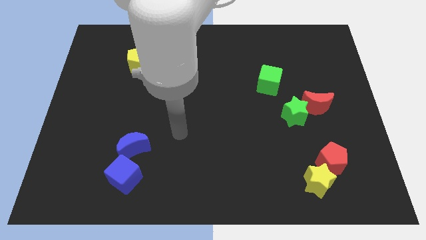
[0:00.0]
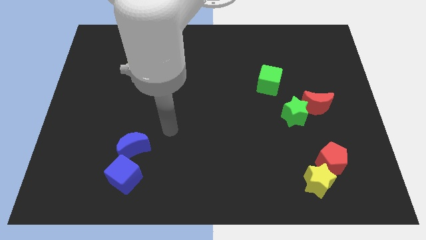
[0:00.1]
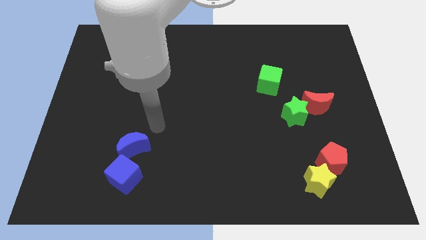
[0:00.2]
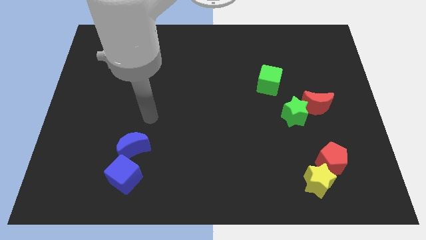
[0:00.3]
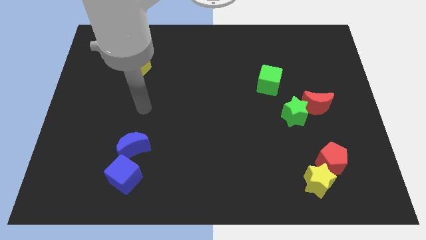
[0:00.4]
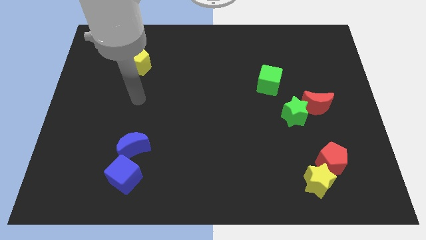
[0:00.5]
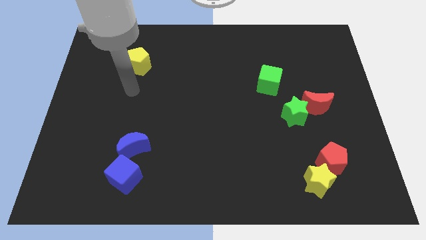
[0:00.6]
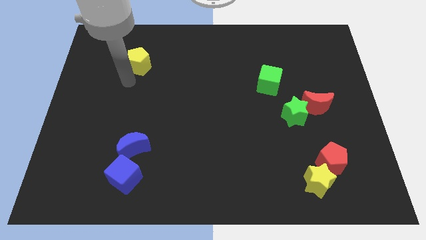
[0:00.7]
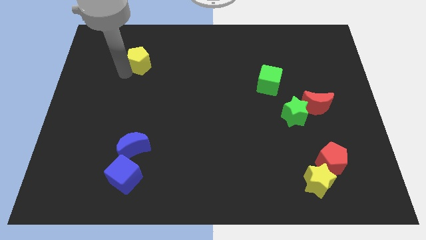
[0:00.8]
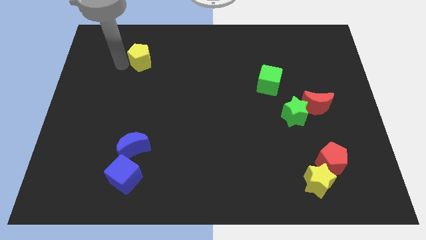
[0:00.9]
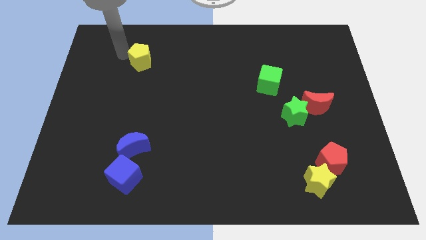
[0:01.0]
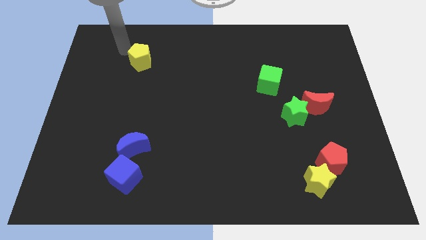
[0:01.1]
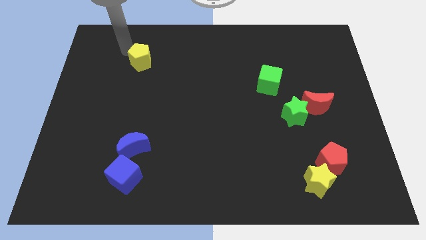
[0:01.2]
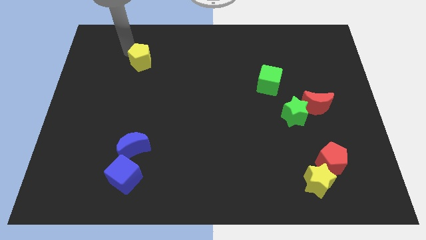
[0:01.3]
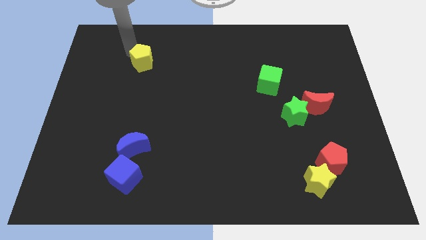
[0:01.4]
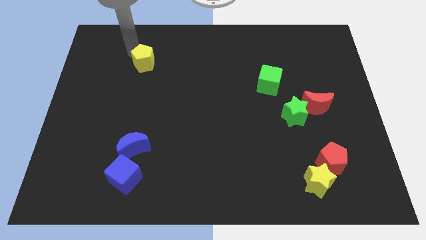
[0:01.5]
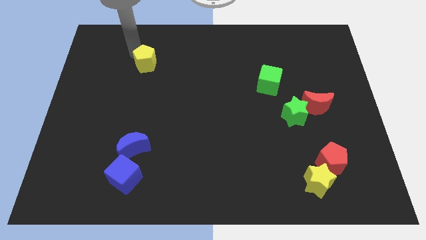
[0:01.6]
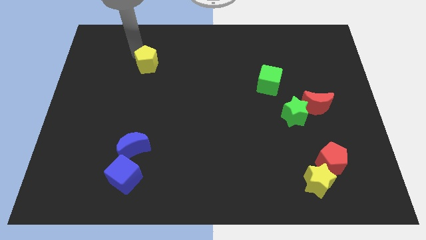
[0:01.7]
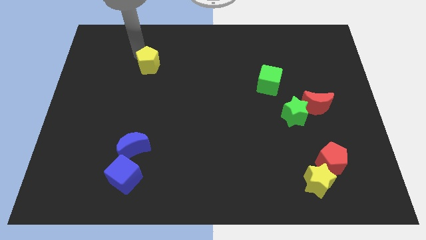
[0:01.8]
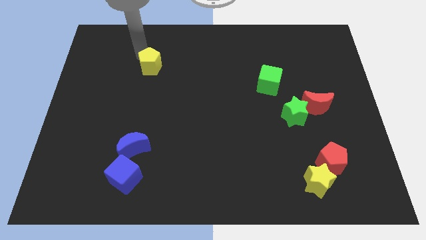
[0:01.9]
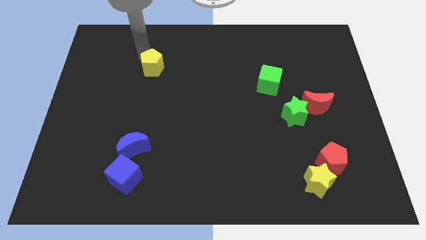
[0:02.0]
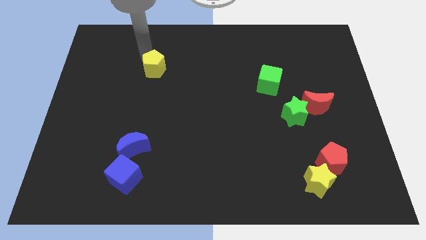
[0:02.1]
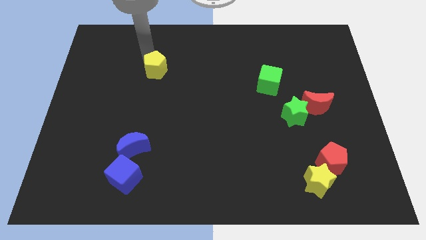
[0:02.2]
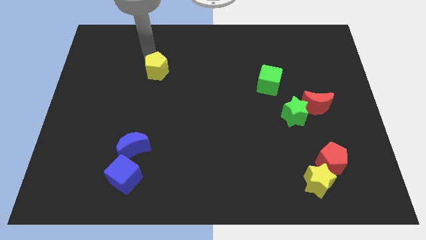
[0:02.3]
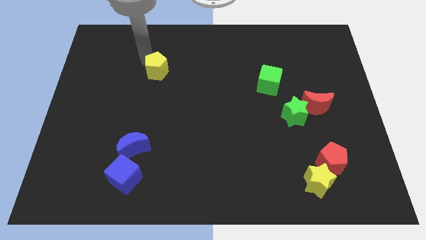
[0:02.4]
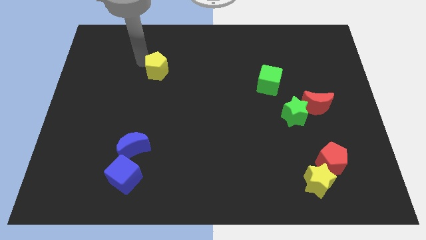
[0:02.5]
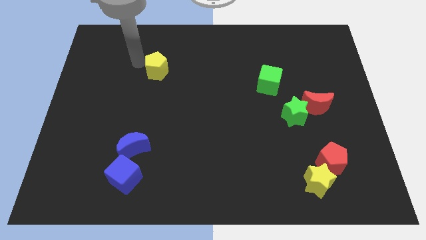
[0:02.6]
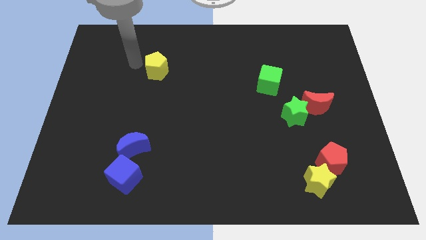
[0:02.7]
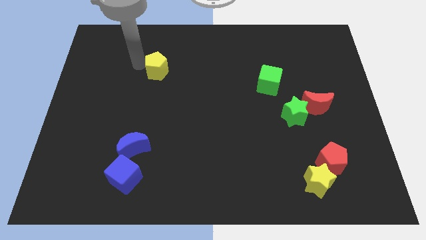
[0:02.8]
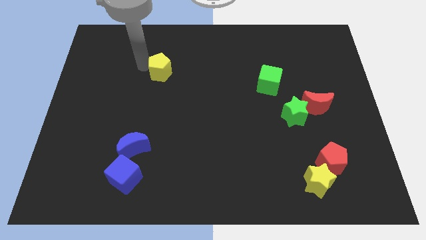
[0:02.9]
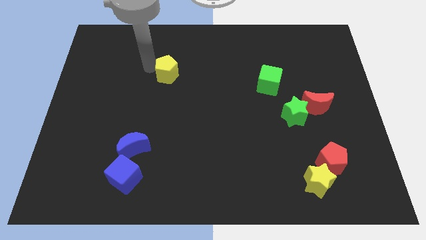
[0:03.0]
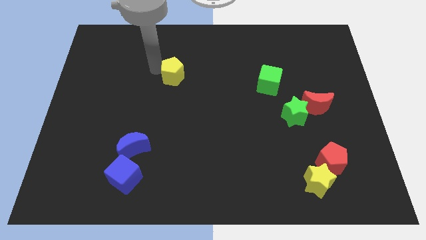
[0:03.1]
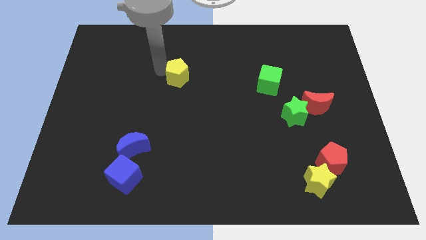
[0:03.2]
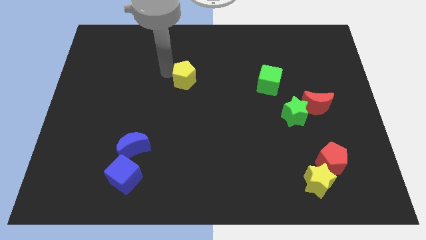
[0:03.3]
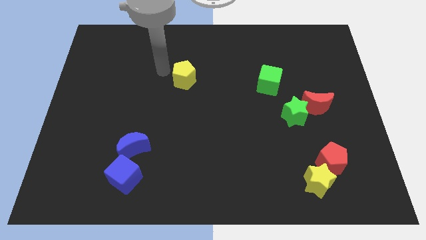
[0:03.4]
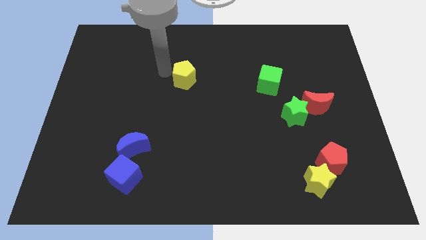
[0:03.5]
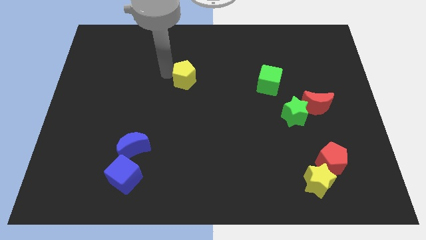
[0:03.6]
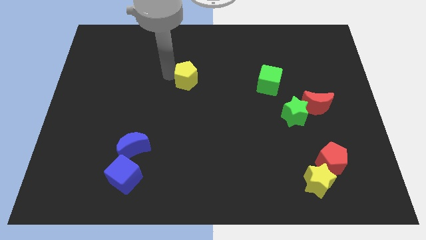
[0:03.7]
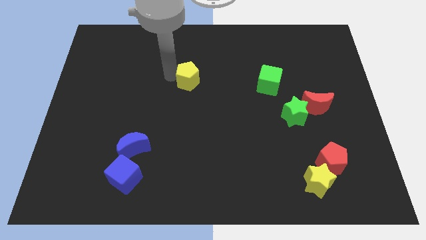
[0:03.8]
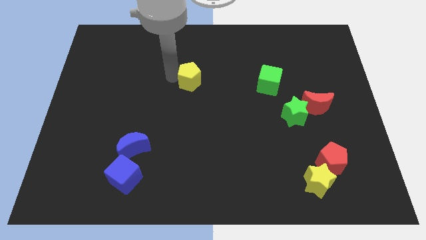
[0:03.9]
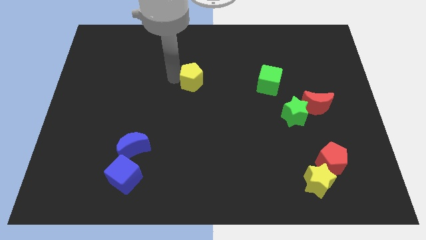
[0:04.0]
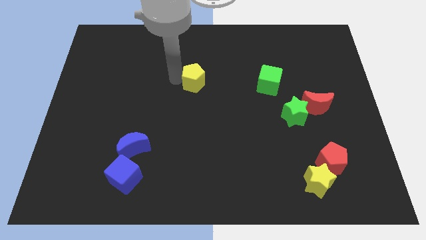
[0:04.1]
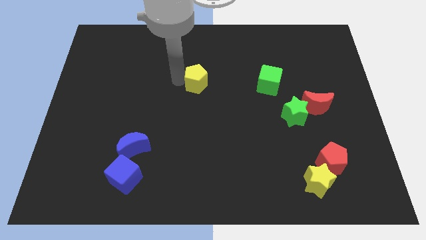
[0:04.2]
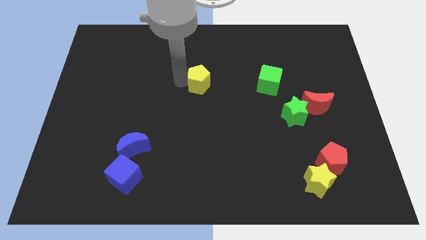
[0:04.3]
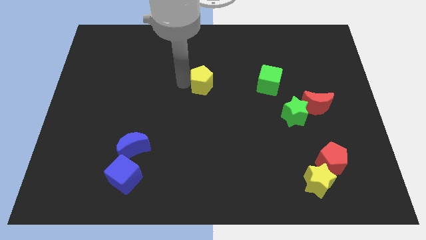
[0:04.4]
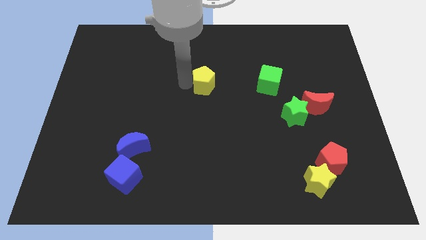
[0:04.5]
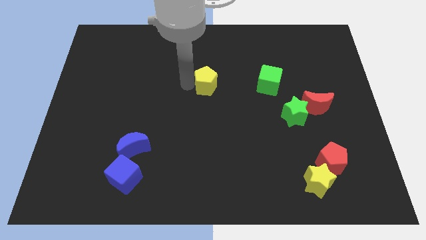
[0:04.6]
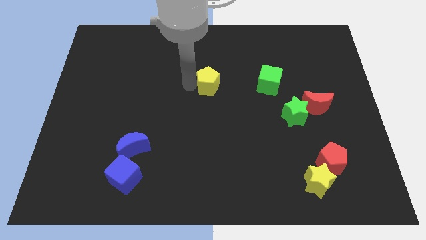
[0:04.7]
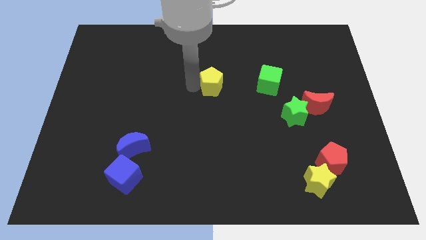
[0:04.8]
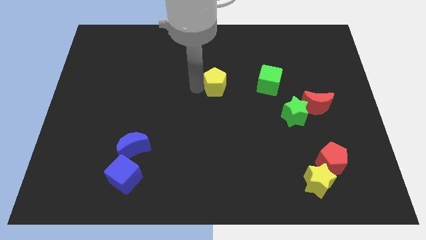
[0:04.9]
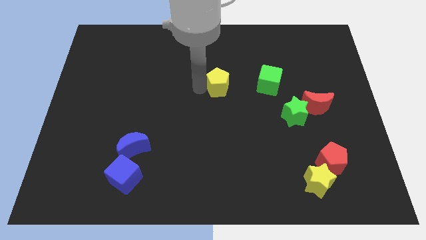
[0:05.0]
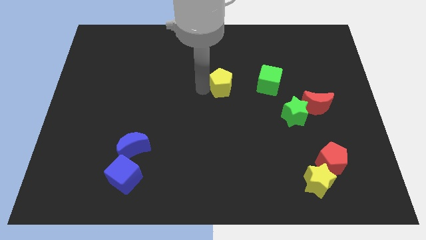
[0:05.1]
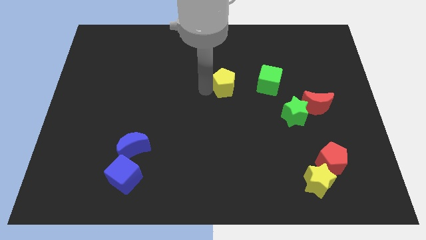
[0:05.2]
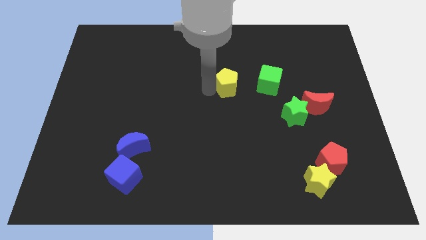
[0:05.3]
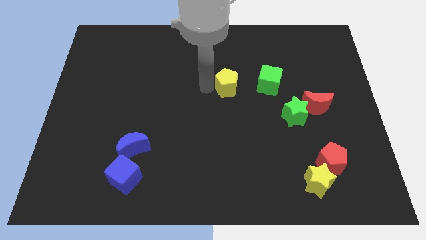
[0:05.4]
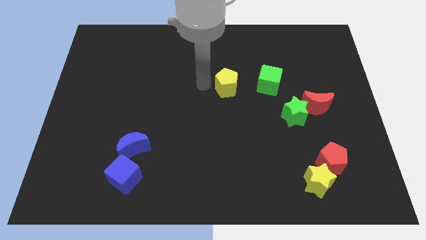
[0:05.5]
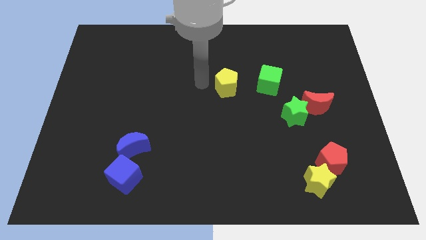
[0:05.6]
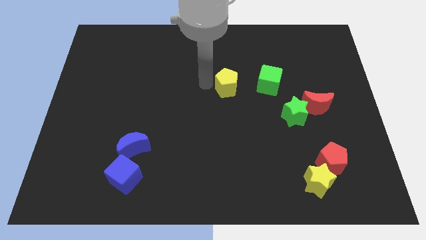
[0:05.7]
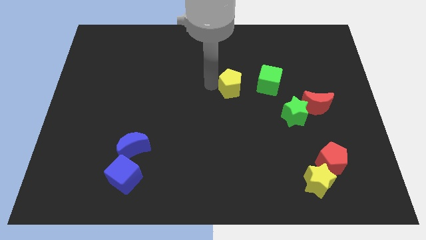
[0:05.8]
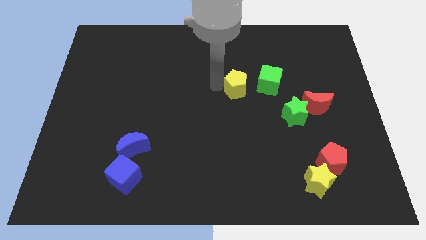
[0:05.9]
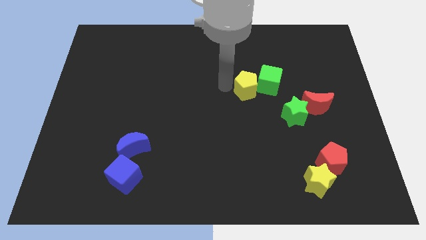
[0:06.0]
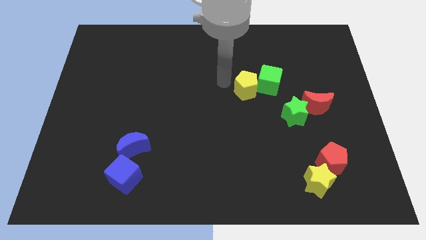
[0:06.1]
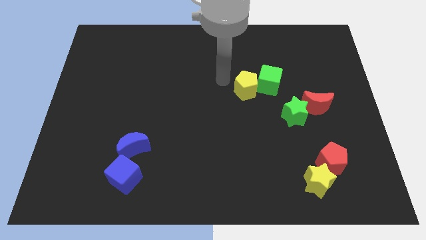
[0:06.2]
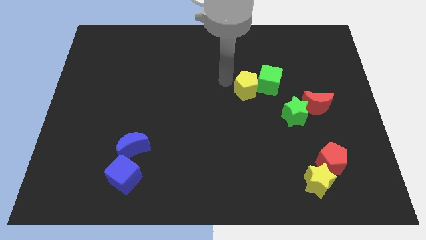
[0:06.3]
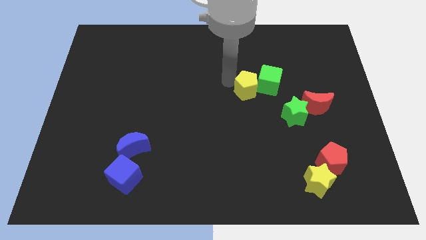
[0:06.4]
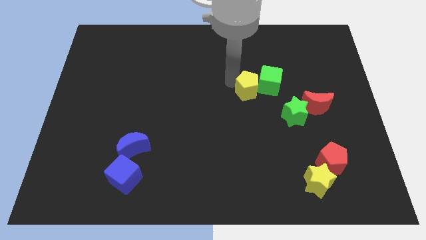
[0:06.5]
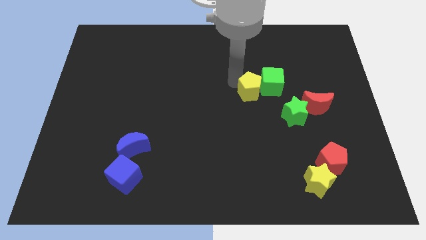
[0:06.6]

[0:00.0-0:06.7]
move the yellow pentagon to the top left side of the green star
